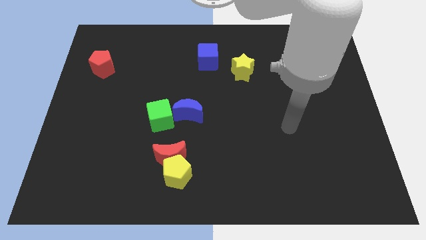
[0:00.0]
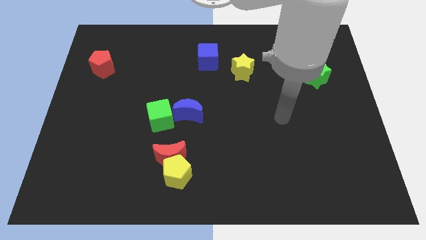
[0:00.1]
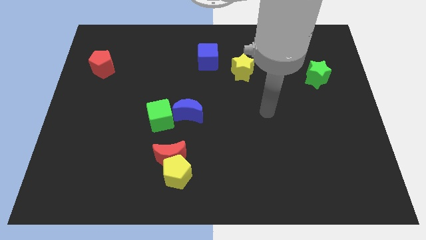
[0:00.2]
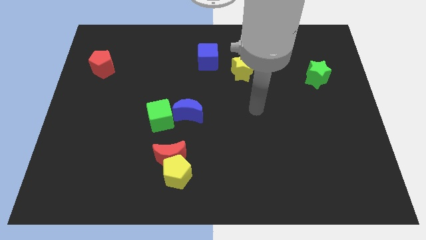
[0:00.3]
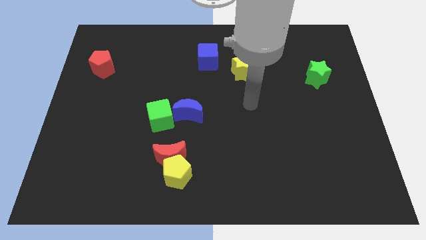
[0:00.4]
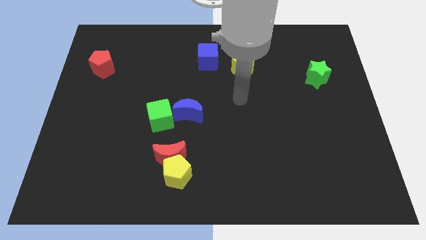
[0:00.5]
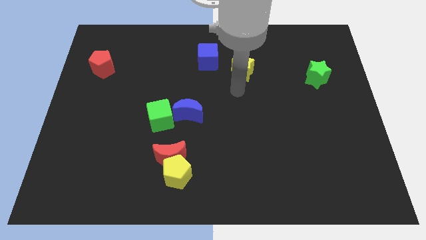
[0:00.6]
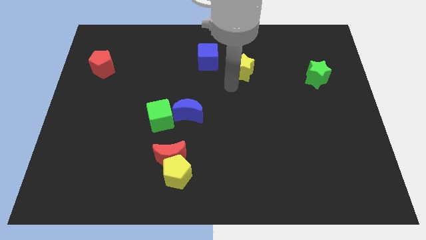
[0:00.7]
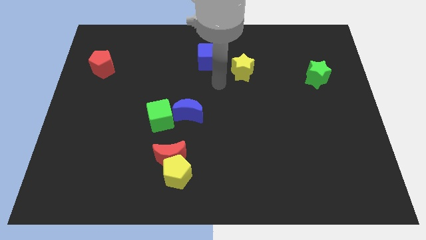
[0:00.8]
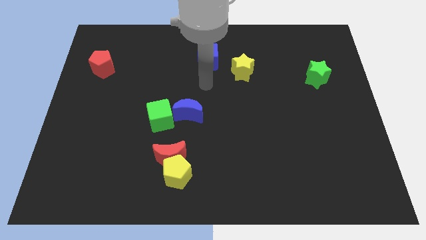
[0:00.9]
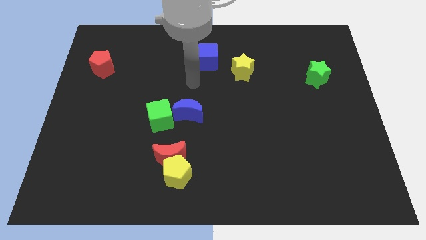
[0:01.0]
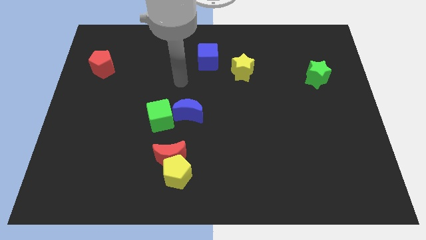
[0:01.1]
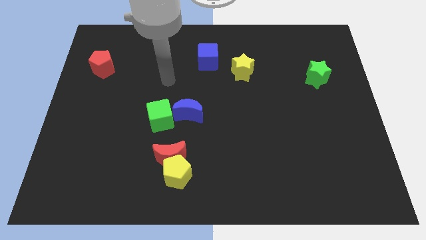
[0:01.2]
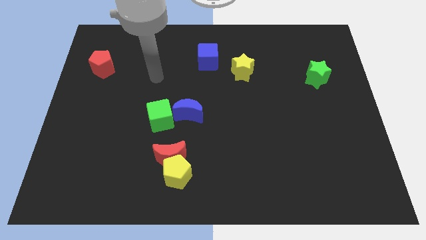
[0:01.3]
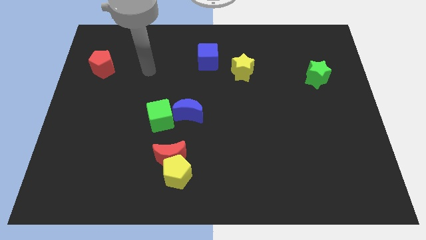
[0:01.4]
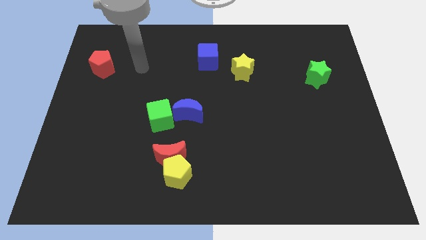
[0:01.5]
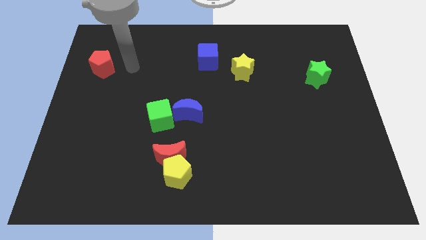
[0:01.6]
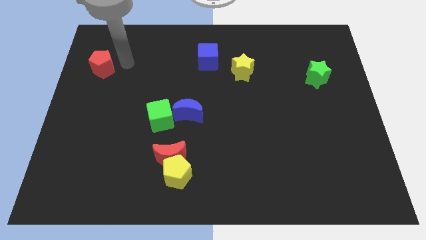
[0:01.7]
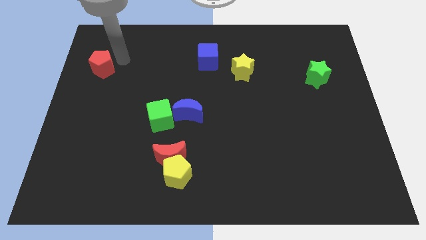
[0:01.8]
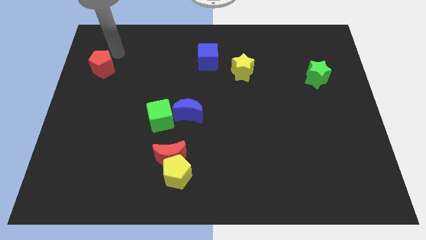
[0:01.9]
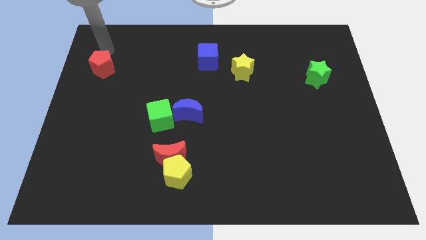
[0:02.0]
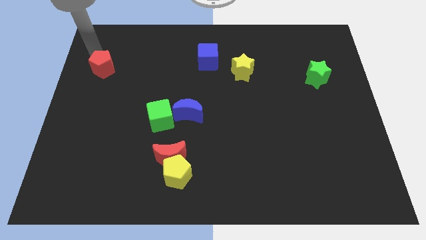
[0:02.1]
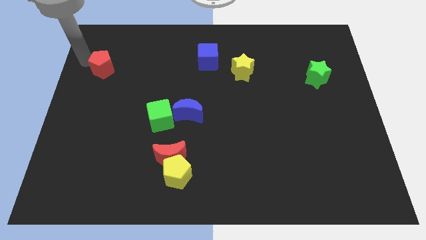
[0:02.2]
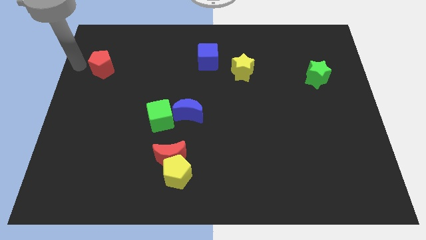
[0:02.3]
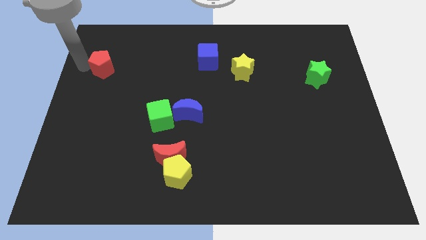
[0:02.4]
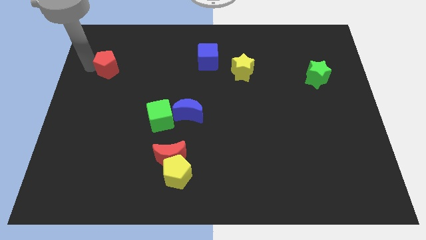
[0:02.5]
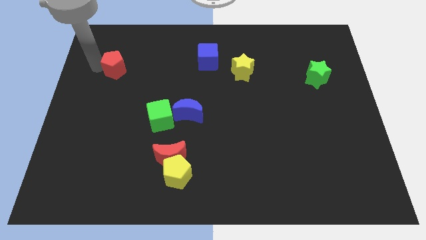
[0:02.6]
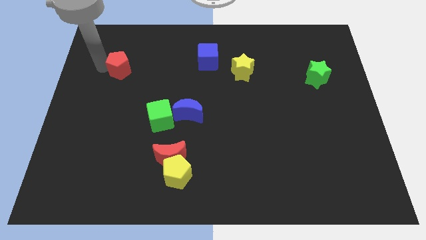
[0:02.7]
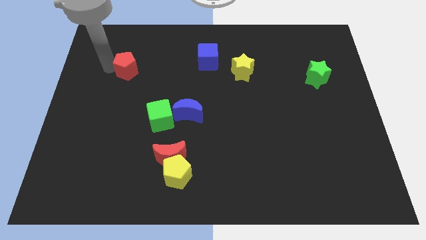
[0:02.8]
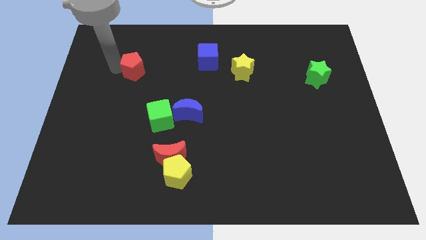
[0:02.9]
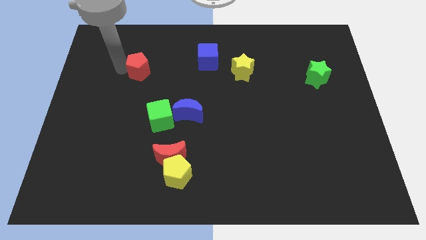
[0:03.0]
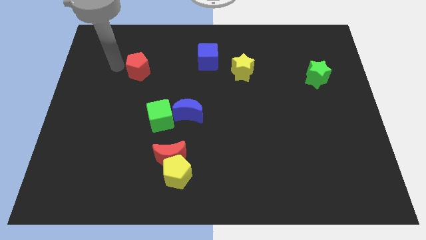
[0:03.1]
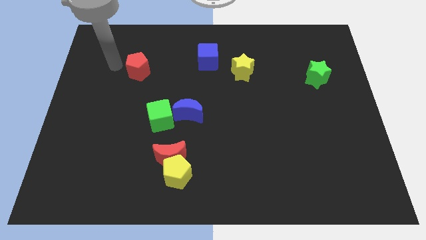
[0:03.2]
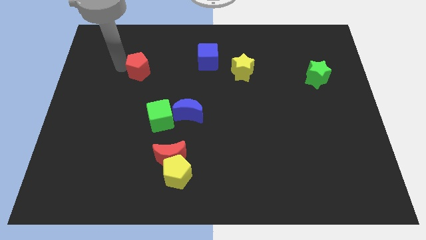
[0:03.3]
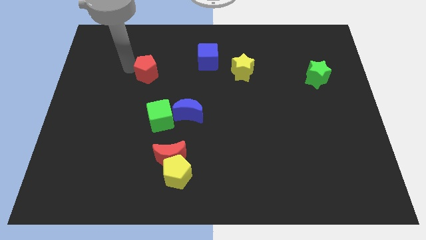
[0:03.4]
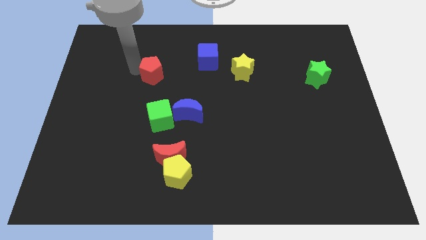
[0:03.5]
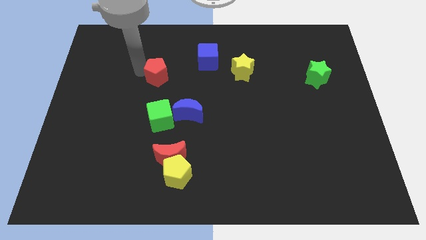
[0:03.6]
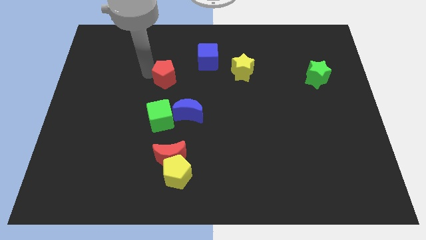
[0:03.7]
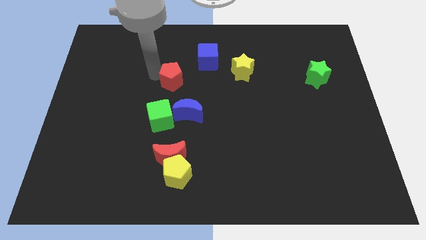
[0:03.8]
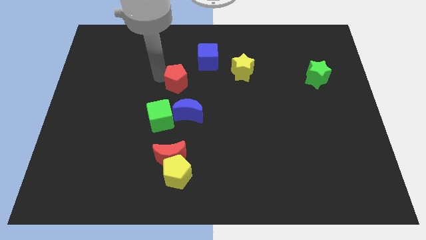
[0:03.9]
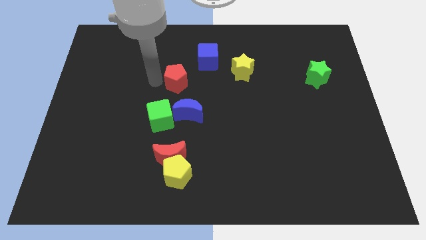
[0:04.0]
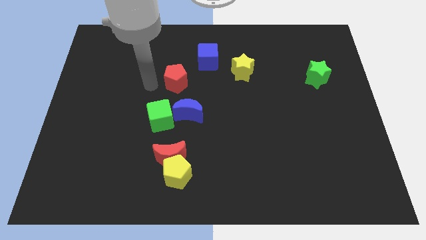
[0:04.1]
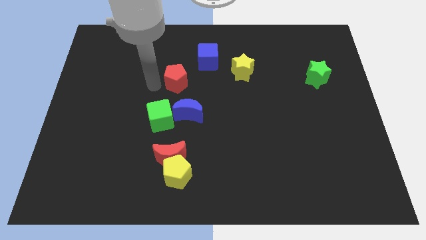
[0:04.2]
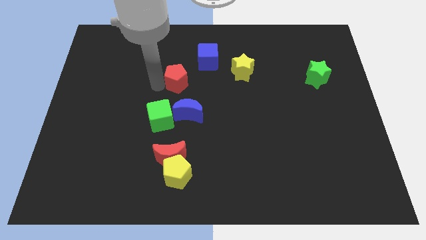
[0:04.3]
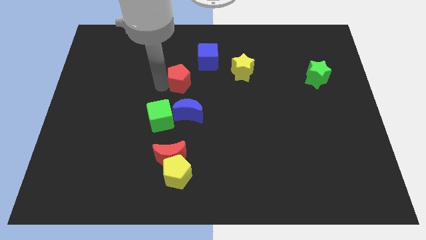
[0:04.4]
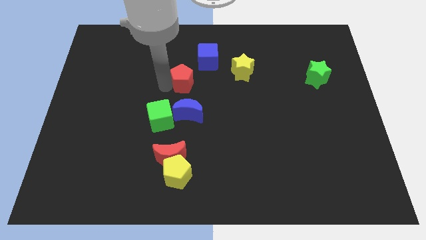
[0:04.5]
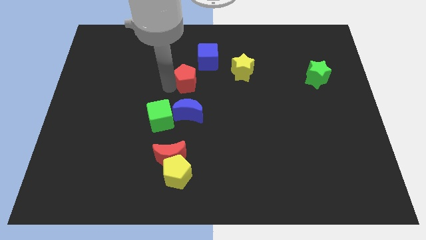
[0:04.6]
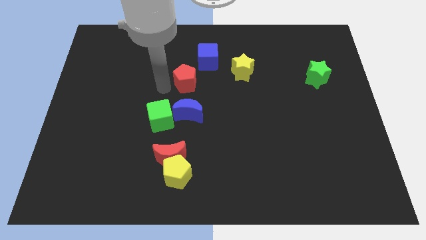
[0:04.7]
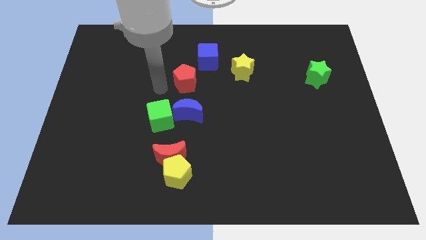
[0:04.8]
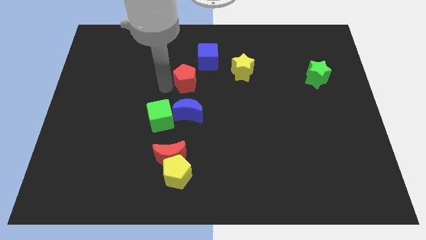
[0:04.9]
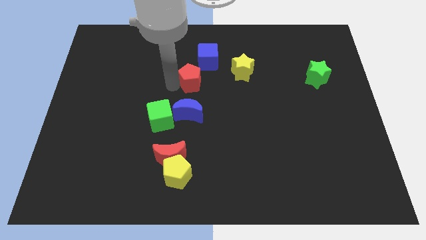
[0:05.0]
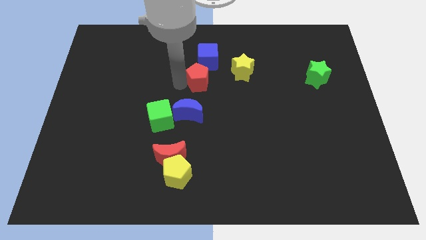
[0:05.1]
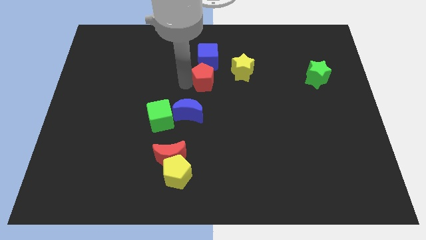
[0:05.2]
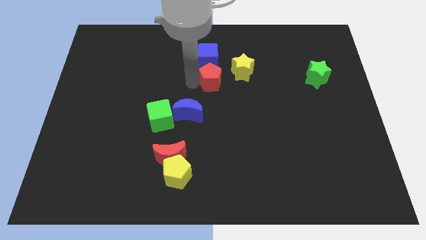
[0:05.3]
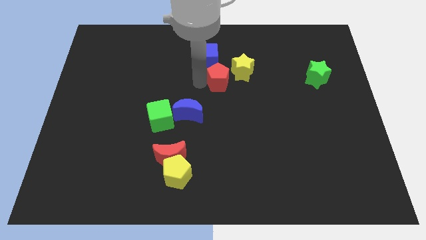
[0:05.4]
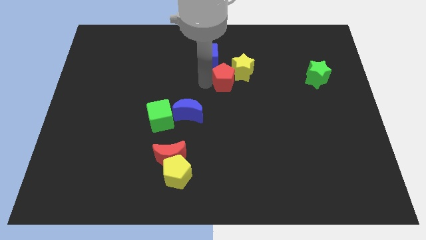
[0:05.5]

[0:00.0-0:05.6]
push the red pentagon close to the yellow star

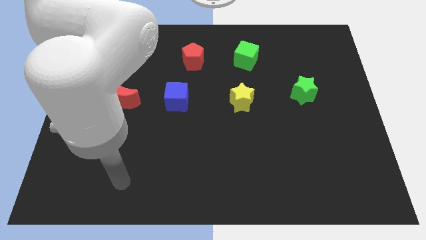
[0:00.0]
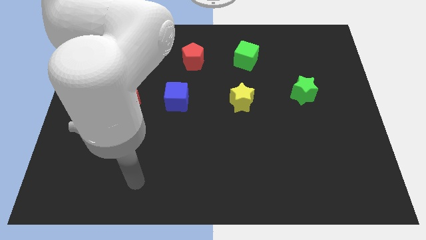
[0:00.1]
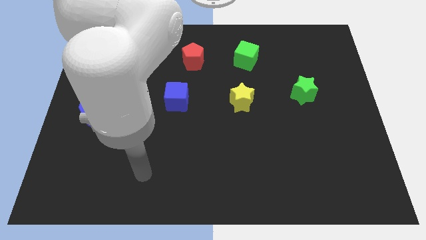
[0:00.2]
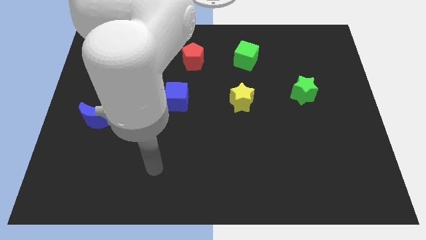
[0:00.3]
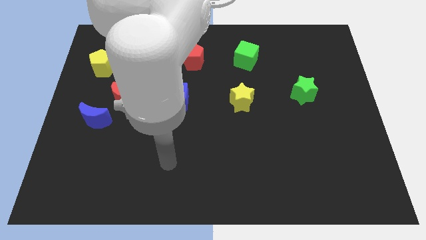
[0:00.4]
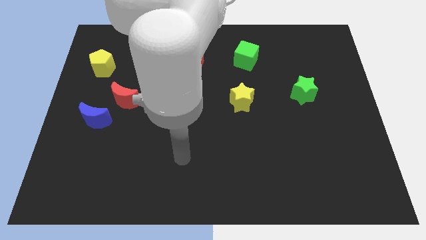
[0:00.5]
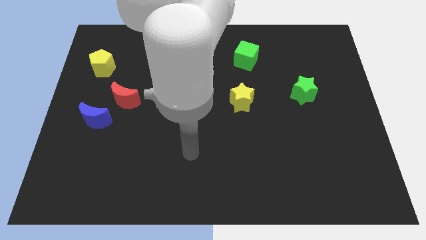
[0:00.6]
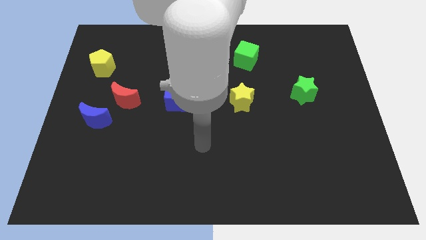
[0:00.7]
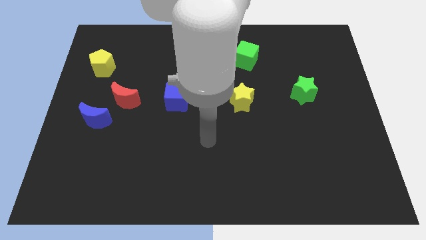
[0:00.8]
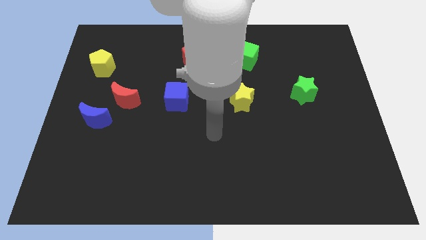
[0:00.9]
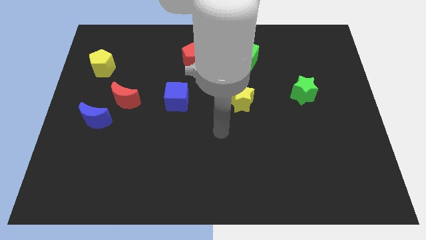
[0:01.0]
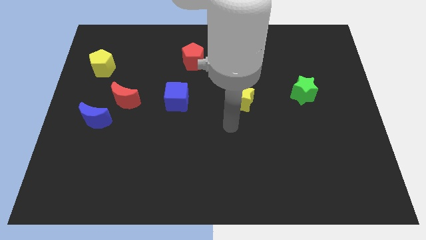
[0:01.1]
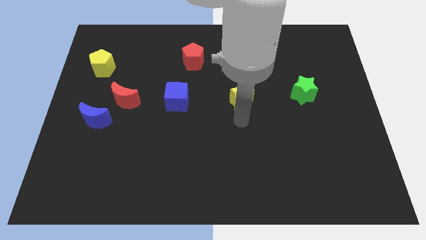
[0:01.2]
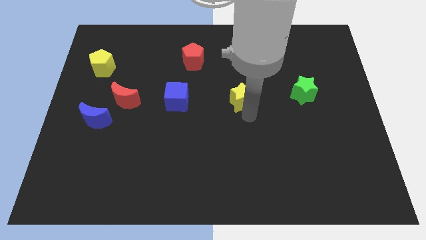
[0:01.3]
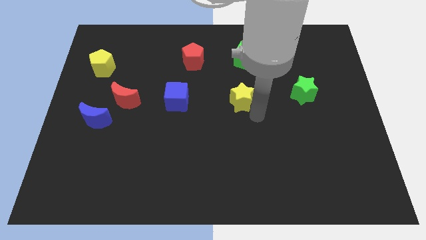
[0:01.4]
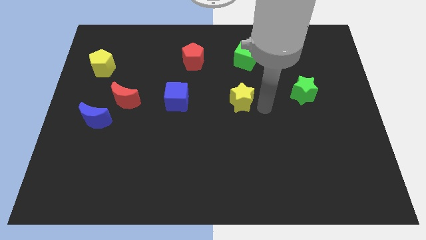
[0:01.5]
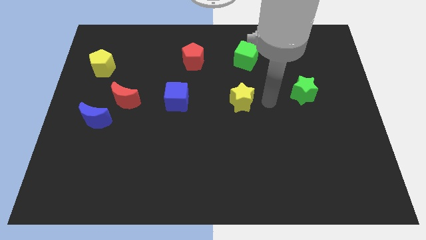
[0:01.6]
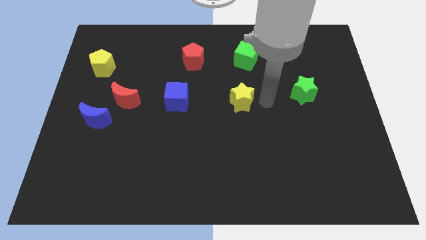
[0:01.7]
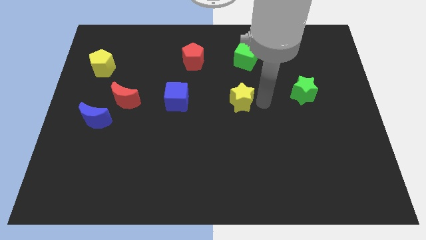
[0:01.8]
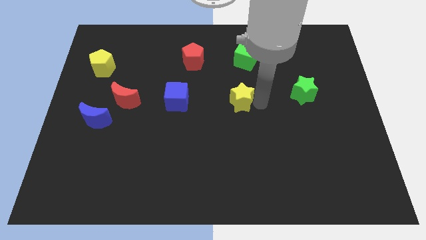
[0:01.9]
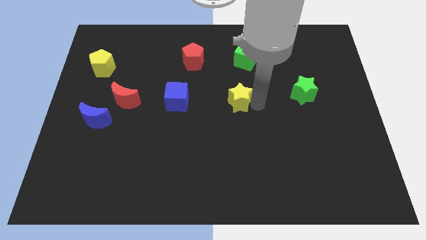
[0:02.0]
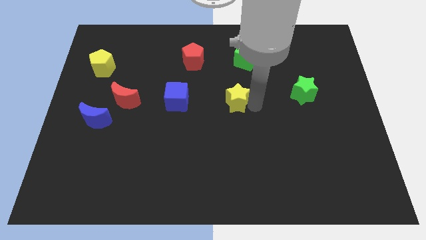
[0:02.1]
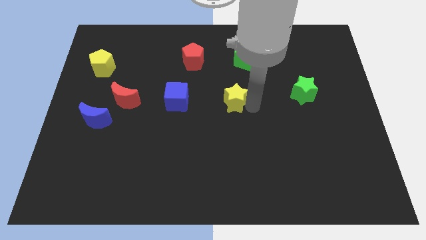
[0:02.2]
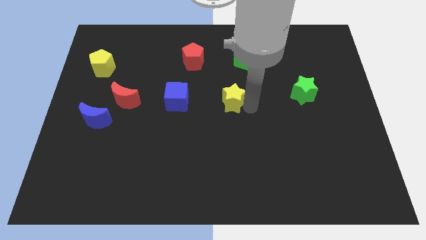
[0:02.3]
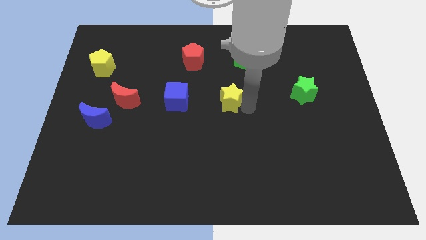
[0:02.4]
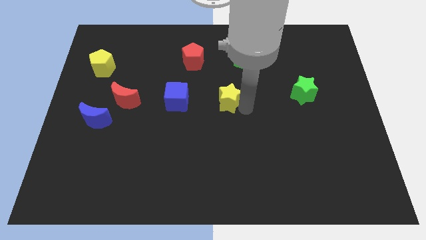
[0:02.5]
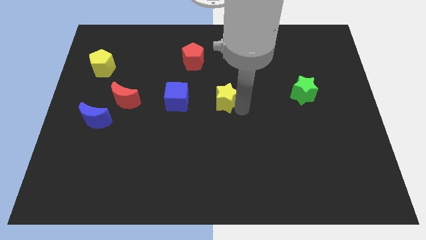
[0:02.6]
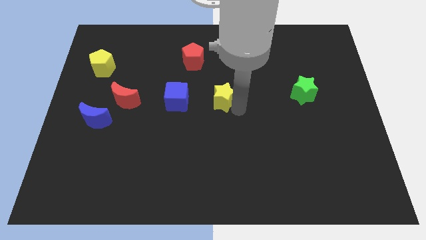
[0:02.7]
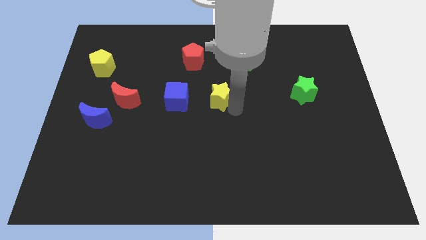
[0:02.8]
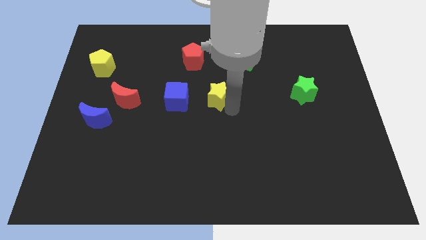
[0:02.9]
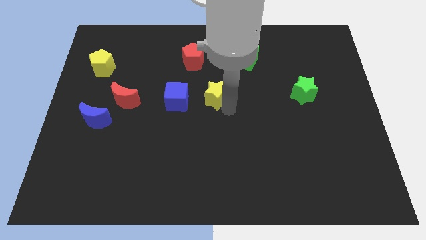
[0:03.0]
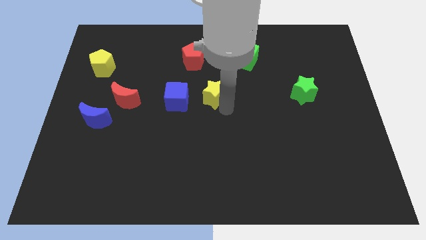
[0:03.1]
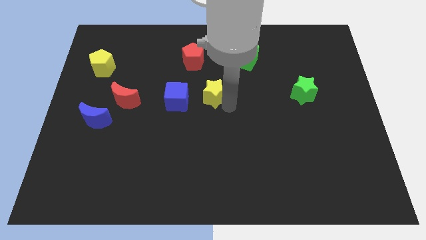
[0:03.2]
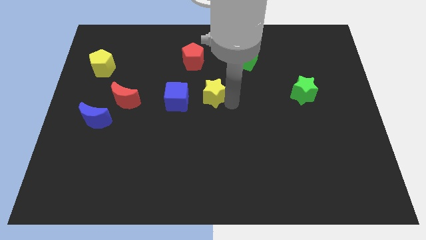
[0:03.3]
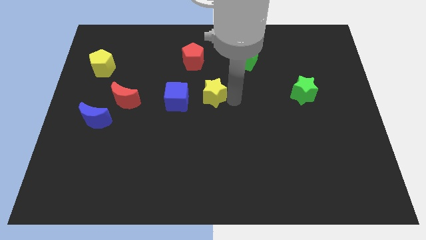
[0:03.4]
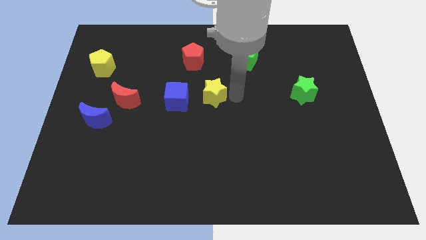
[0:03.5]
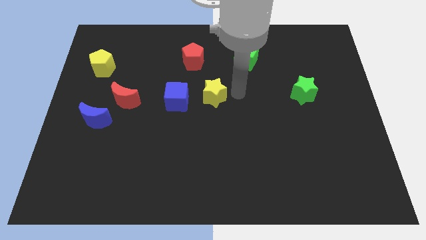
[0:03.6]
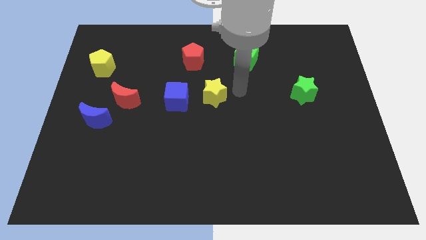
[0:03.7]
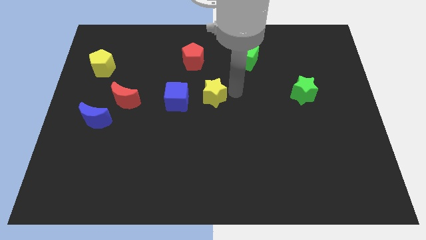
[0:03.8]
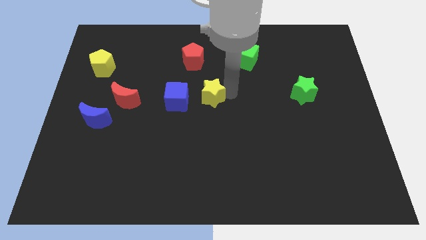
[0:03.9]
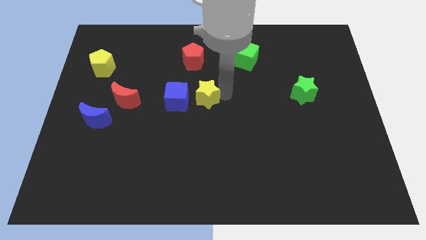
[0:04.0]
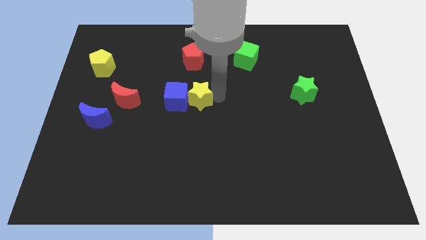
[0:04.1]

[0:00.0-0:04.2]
move the yellow star to the blue cube
